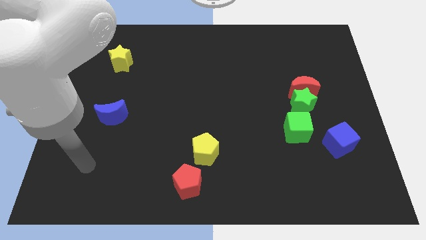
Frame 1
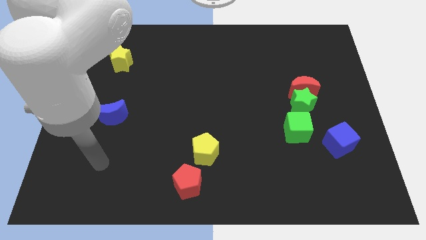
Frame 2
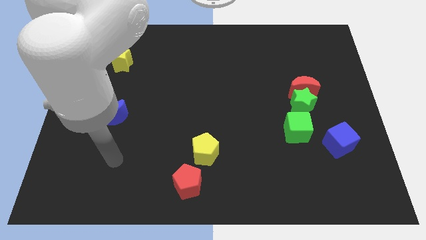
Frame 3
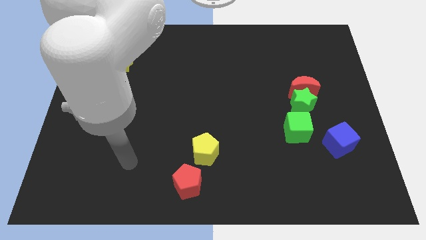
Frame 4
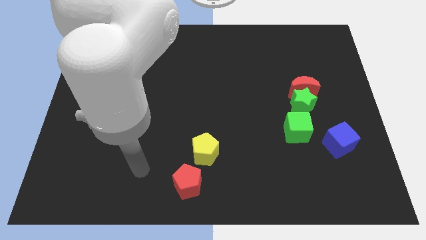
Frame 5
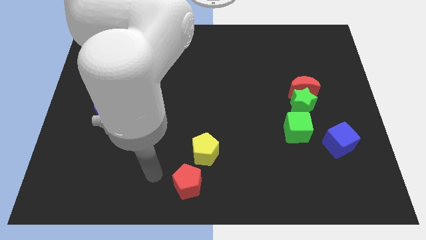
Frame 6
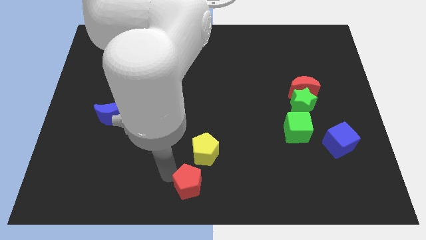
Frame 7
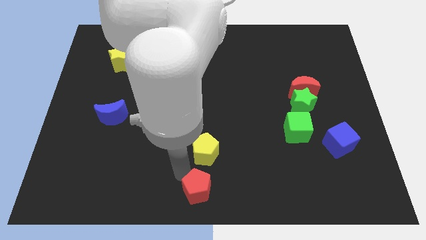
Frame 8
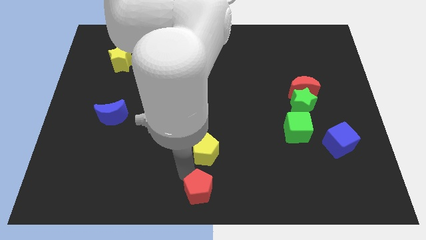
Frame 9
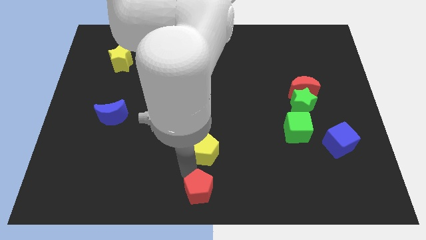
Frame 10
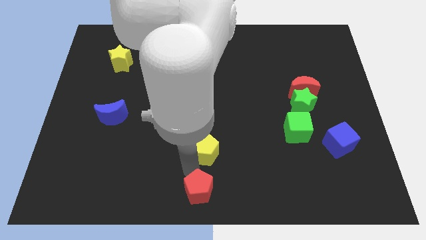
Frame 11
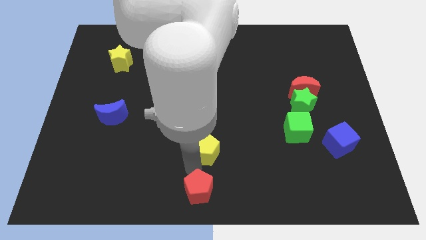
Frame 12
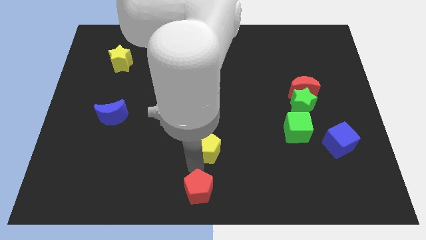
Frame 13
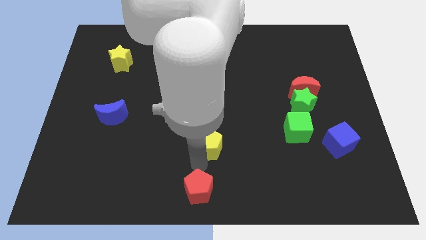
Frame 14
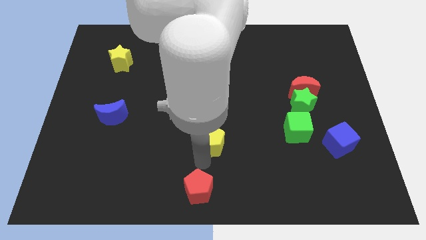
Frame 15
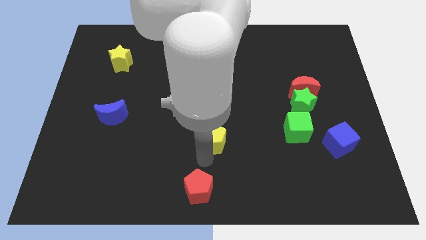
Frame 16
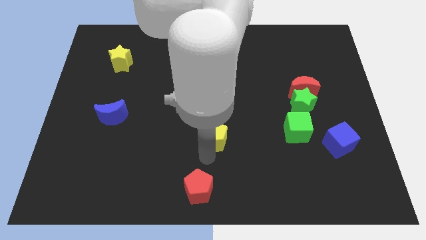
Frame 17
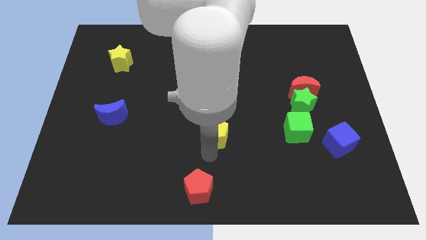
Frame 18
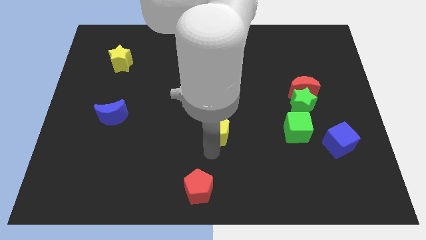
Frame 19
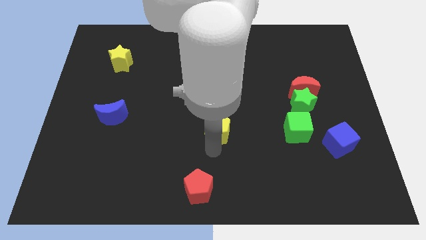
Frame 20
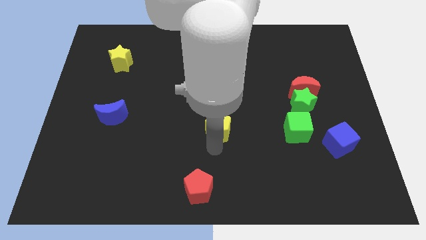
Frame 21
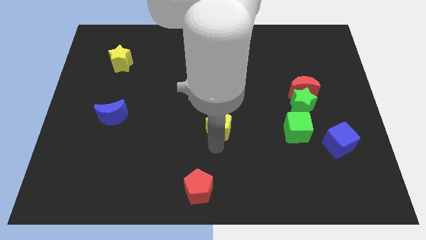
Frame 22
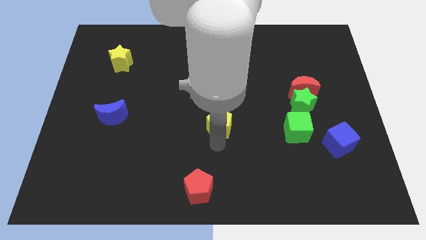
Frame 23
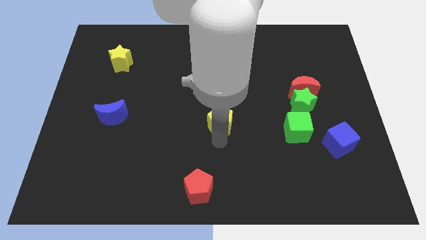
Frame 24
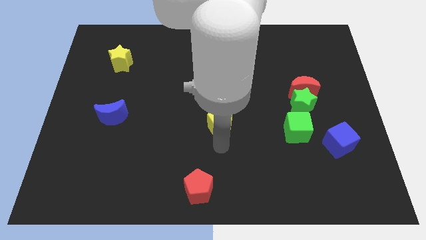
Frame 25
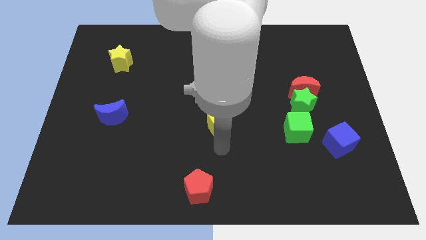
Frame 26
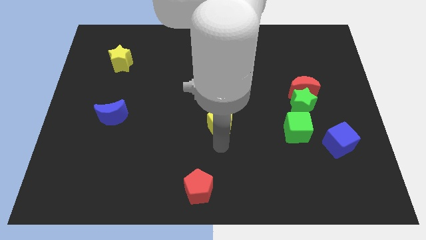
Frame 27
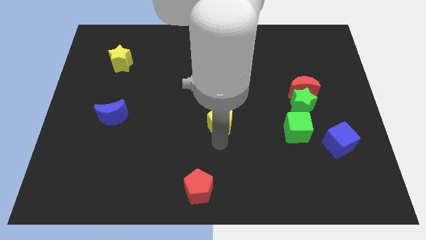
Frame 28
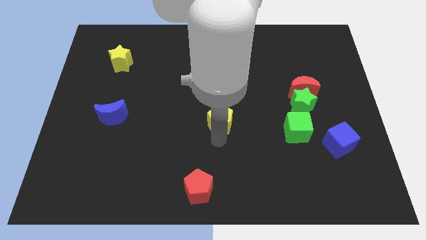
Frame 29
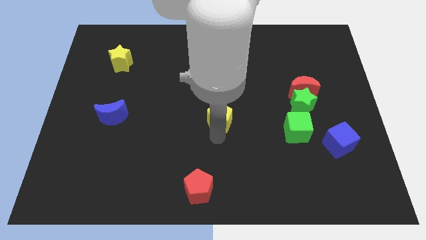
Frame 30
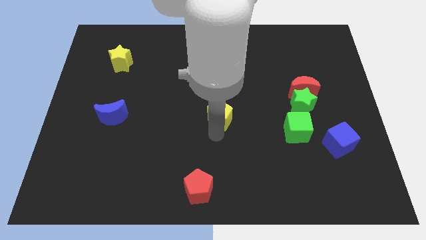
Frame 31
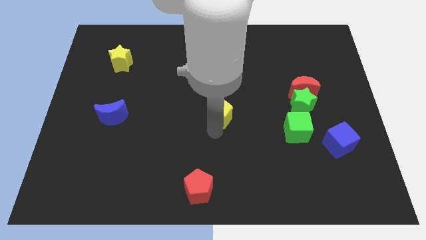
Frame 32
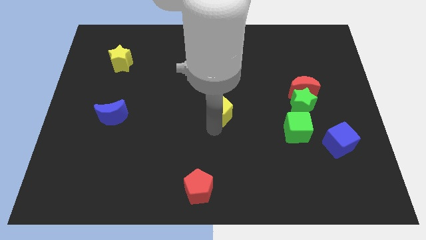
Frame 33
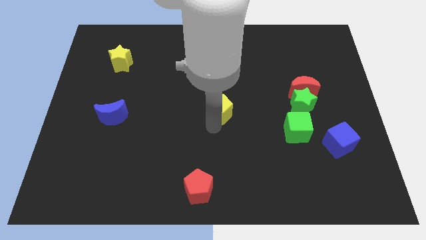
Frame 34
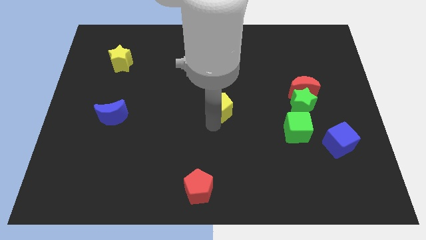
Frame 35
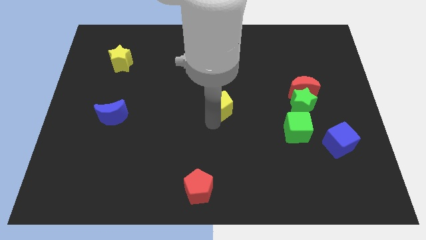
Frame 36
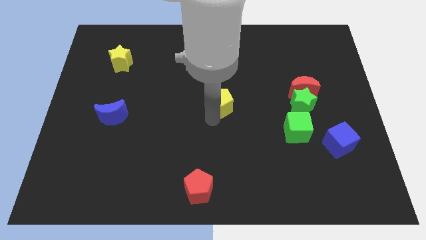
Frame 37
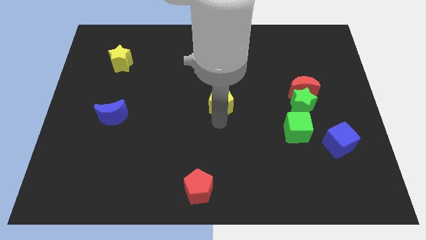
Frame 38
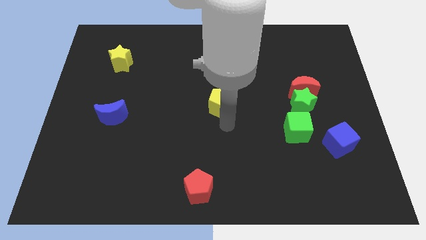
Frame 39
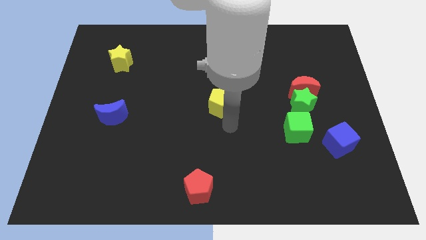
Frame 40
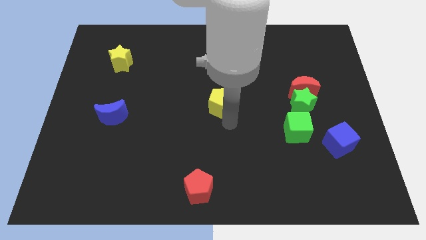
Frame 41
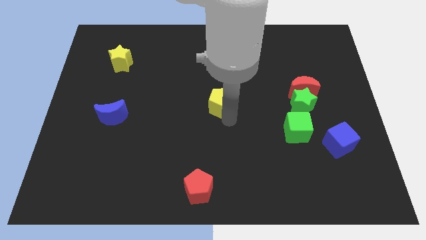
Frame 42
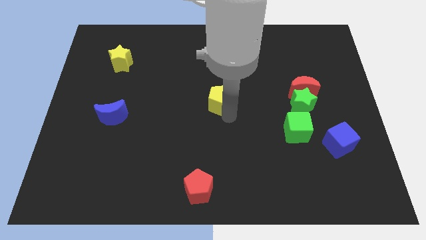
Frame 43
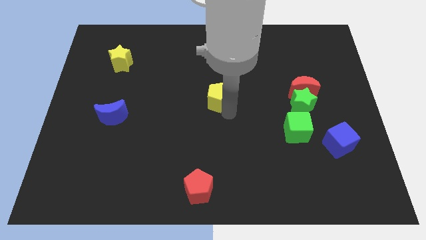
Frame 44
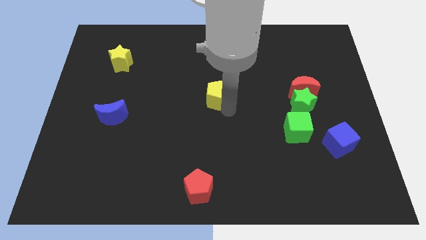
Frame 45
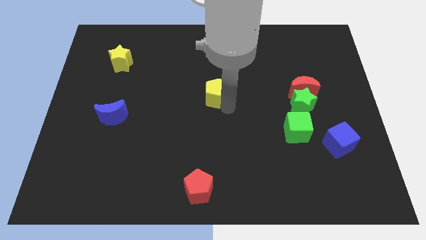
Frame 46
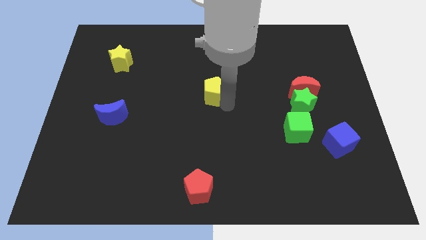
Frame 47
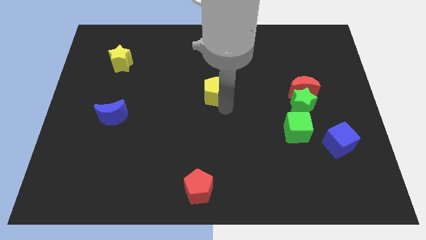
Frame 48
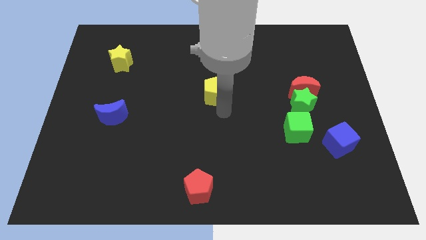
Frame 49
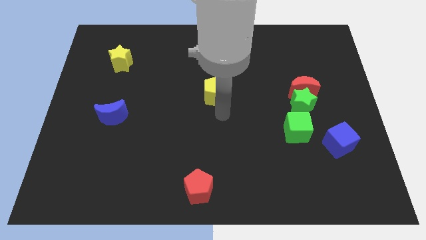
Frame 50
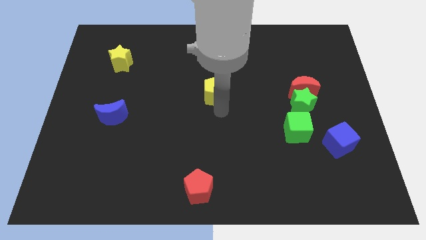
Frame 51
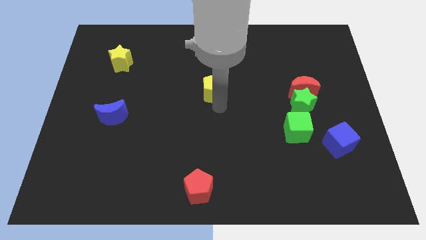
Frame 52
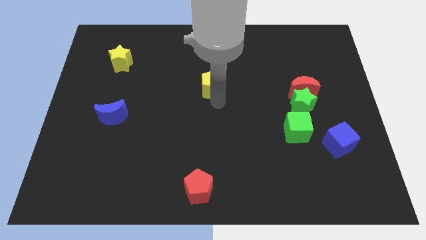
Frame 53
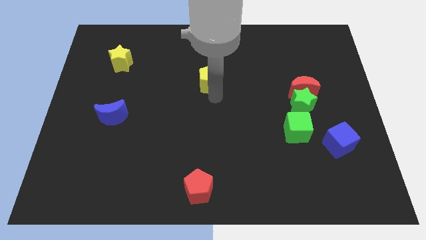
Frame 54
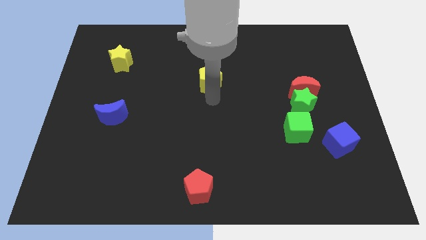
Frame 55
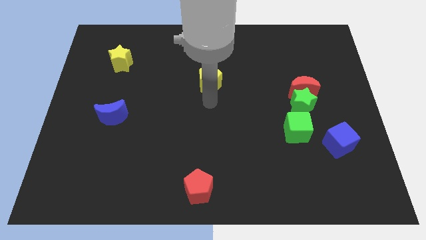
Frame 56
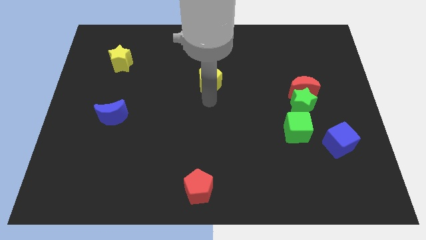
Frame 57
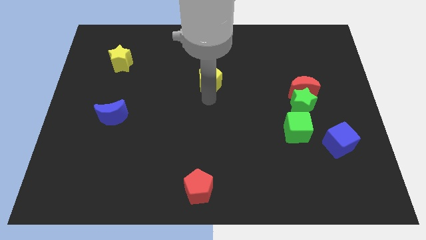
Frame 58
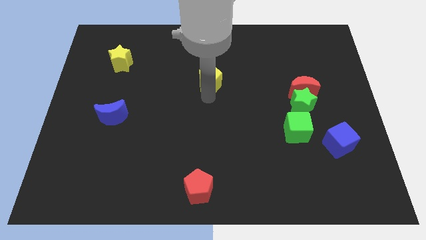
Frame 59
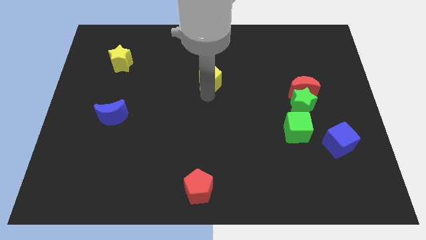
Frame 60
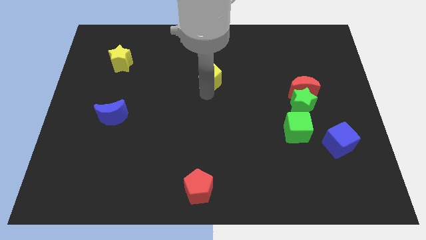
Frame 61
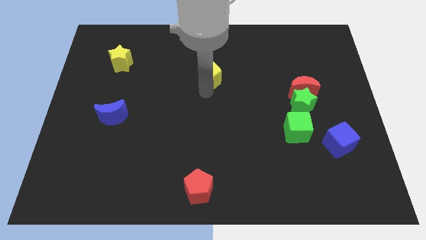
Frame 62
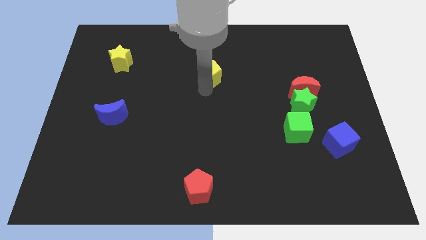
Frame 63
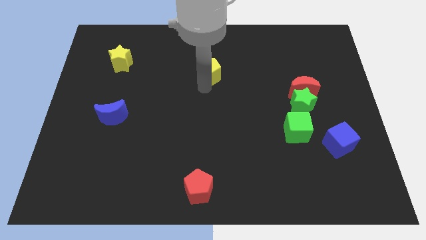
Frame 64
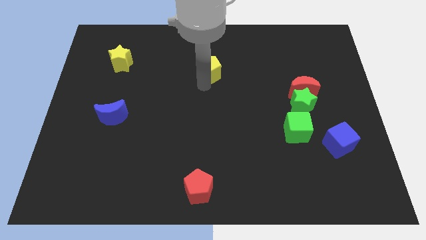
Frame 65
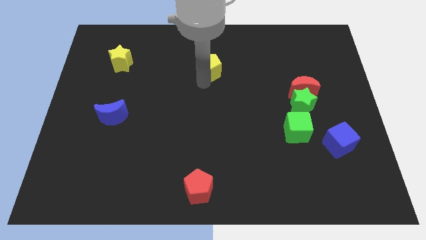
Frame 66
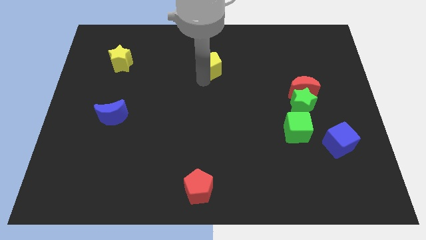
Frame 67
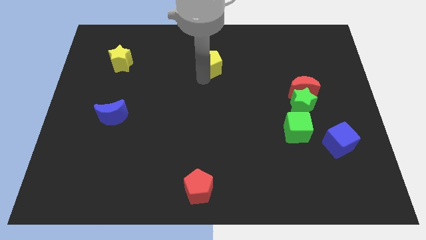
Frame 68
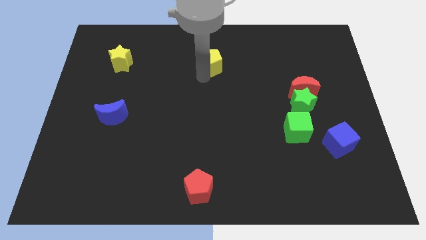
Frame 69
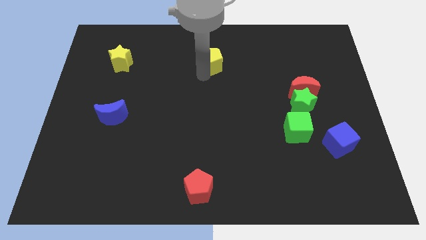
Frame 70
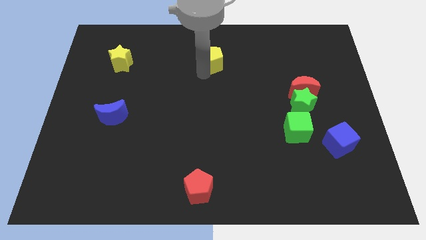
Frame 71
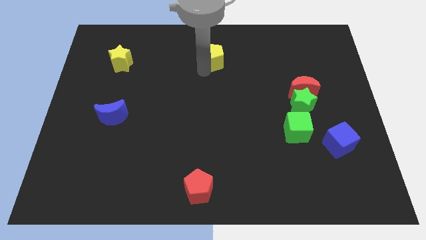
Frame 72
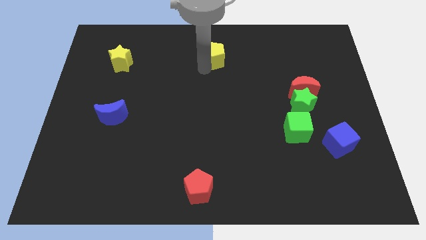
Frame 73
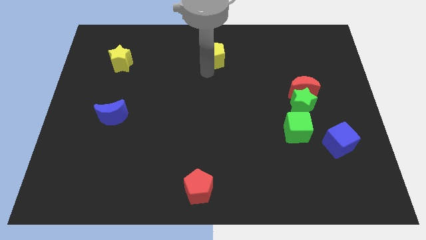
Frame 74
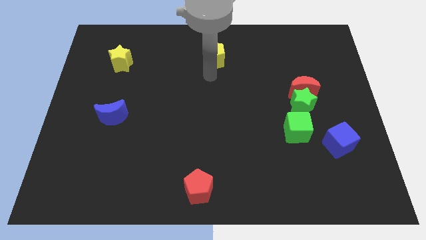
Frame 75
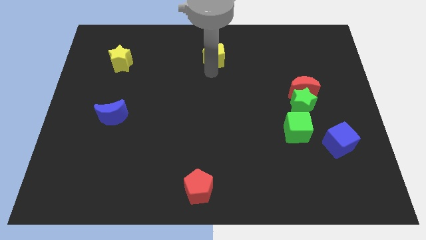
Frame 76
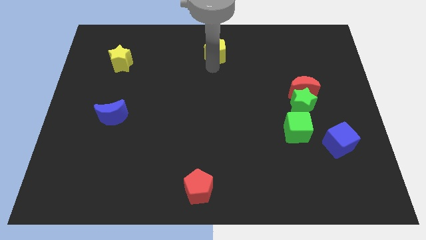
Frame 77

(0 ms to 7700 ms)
move the yellow pentagon to the towards your base

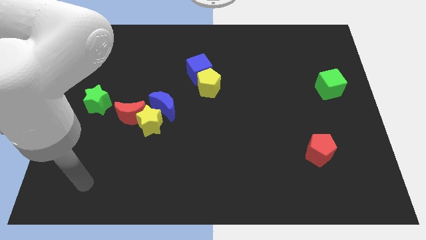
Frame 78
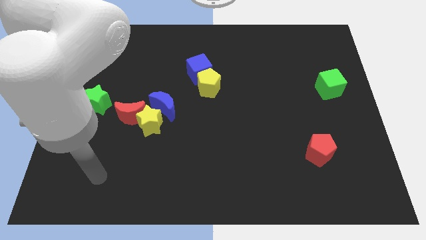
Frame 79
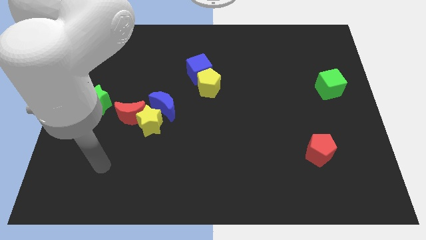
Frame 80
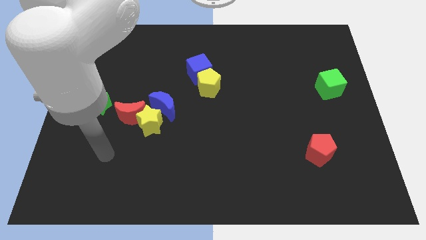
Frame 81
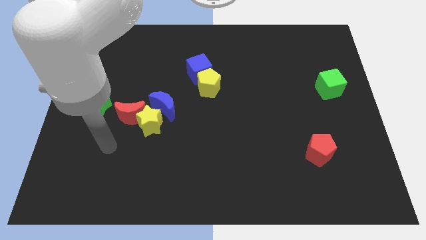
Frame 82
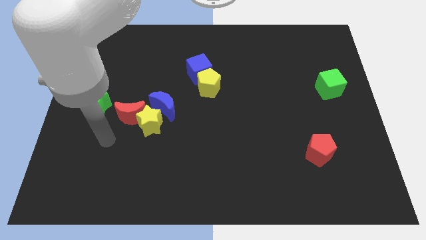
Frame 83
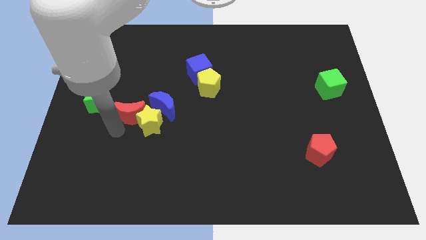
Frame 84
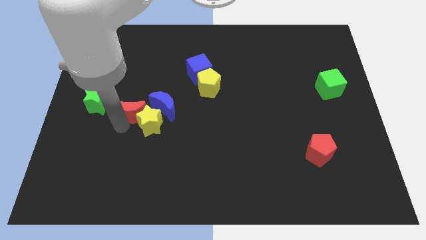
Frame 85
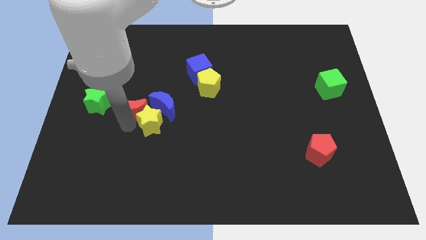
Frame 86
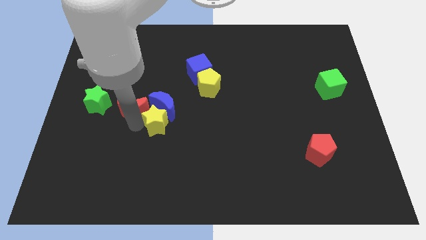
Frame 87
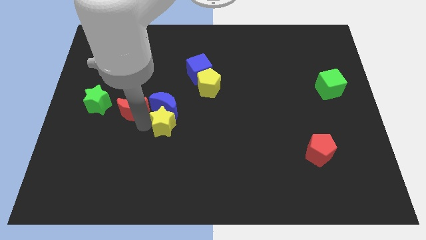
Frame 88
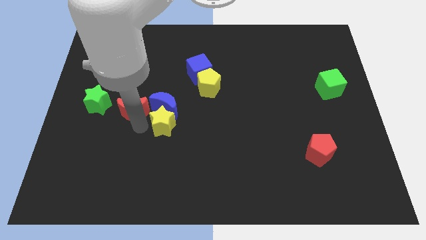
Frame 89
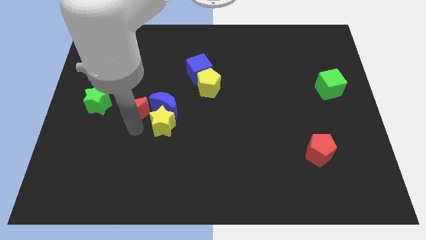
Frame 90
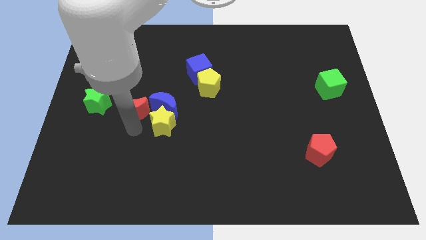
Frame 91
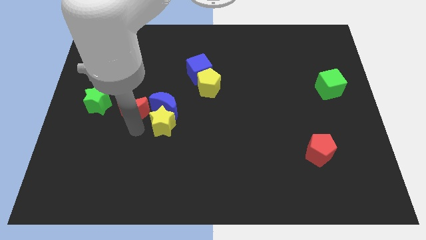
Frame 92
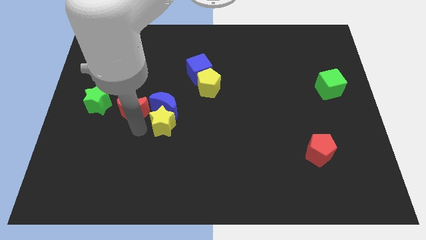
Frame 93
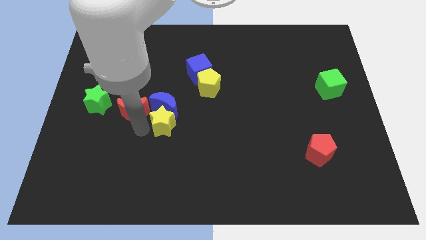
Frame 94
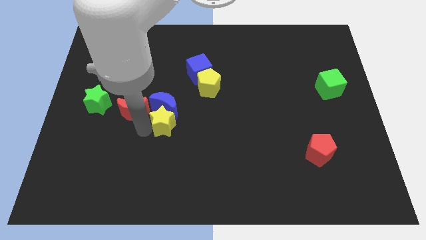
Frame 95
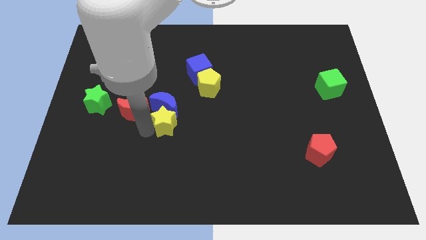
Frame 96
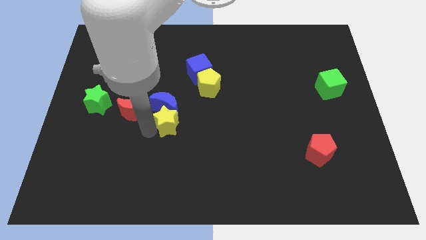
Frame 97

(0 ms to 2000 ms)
move the yellow star to the middle of the board
